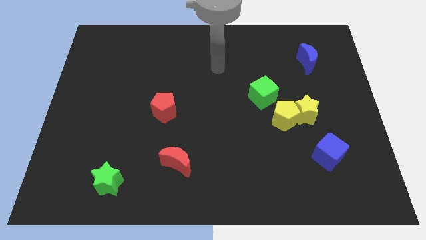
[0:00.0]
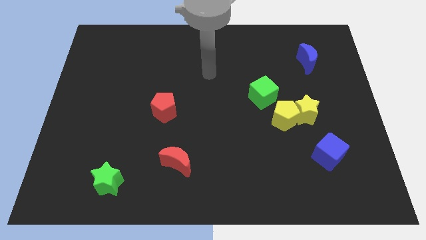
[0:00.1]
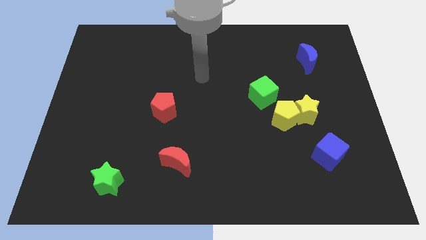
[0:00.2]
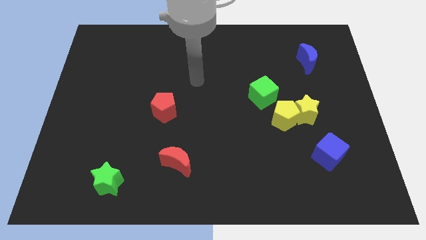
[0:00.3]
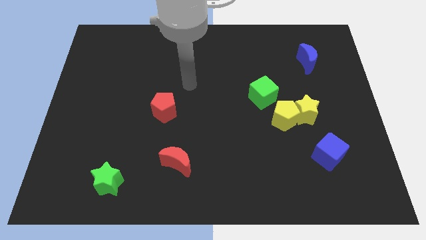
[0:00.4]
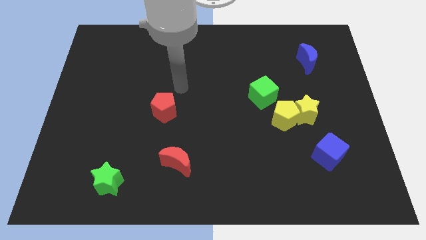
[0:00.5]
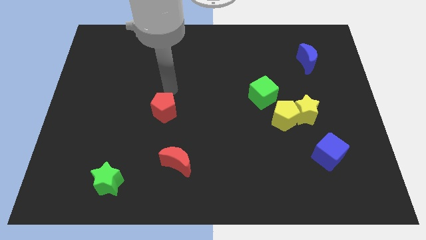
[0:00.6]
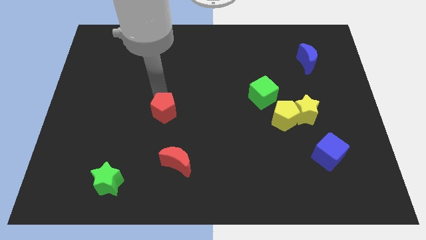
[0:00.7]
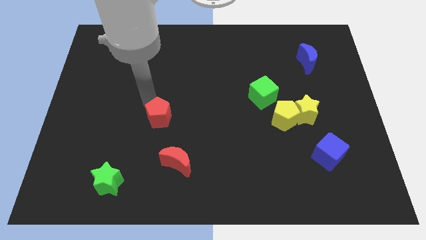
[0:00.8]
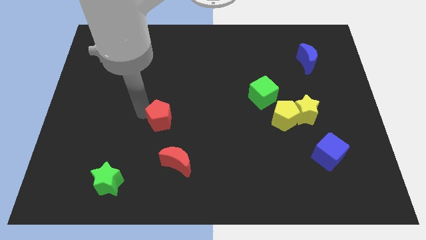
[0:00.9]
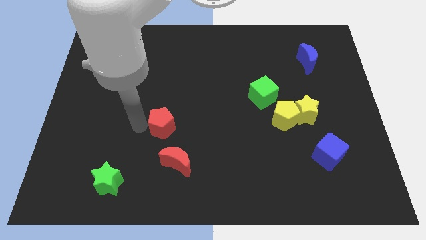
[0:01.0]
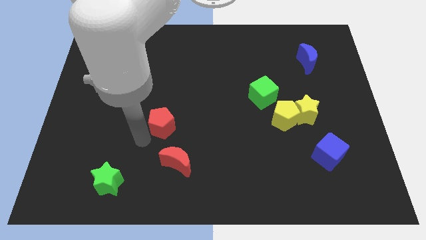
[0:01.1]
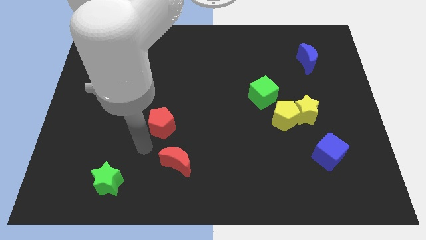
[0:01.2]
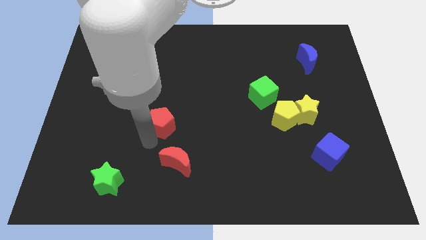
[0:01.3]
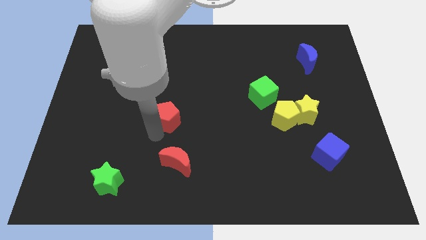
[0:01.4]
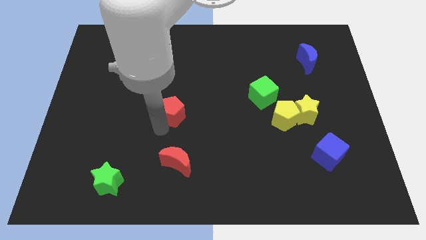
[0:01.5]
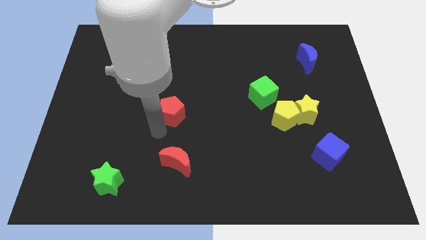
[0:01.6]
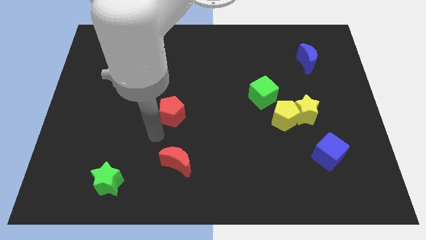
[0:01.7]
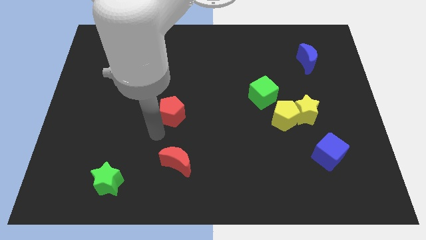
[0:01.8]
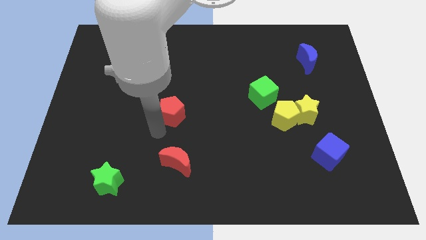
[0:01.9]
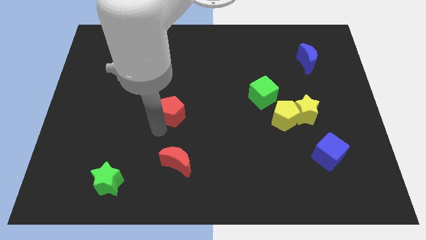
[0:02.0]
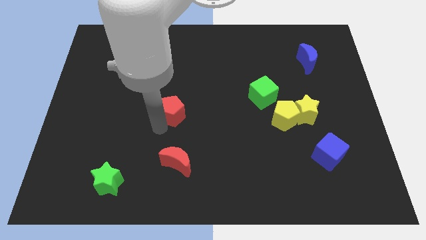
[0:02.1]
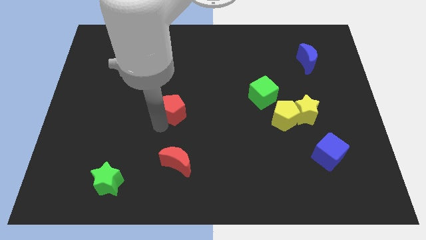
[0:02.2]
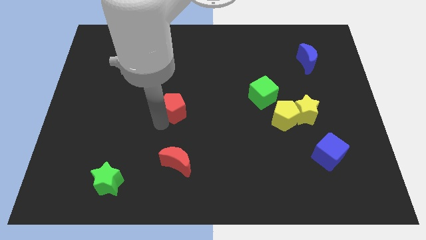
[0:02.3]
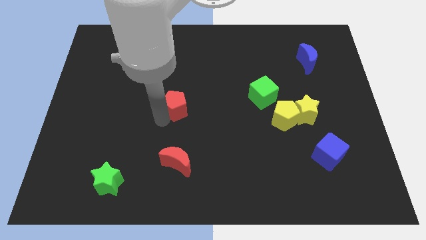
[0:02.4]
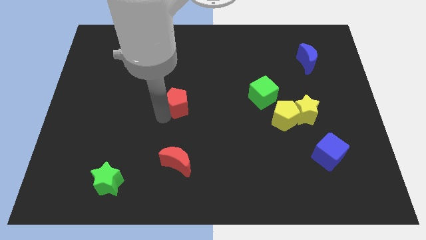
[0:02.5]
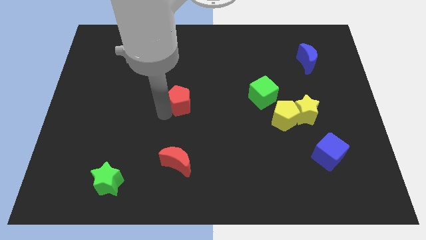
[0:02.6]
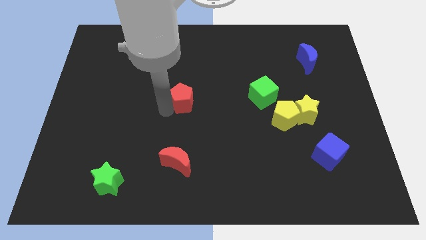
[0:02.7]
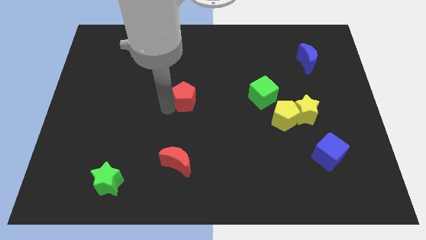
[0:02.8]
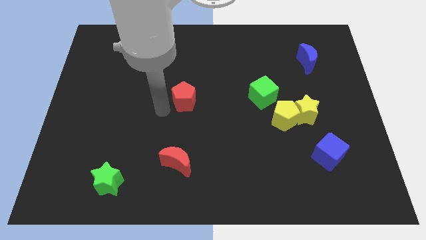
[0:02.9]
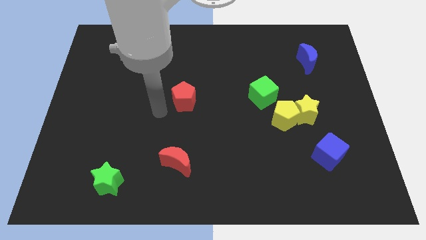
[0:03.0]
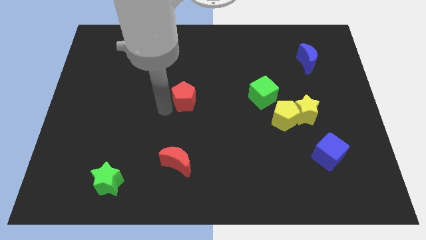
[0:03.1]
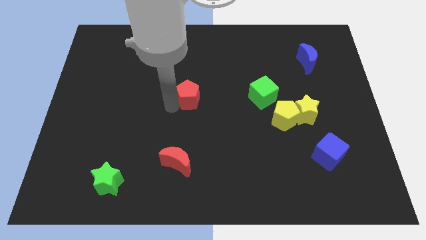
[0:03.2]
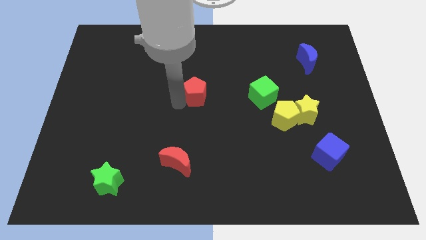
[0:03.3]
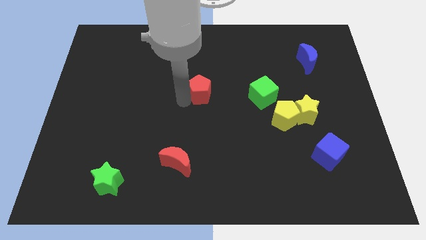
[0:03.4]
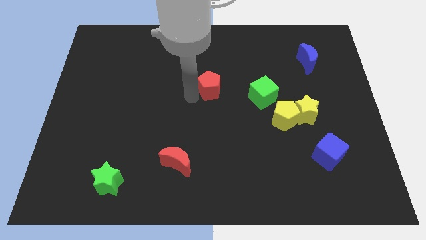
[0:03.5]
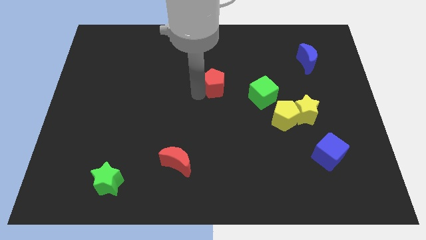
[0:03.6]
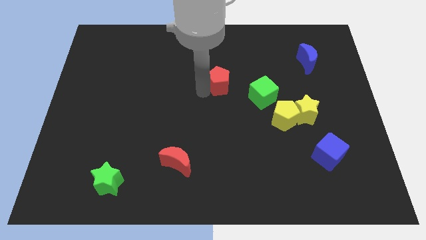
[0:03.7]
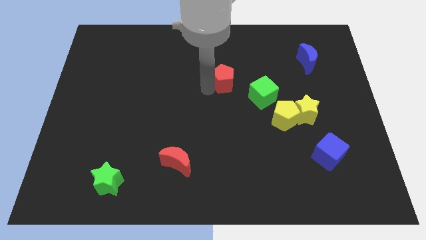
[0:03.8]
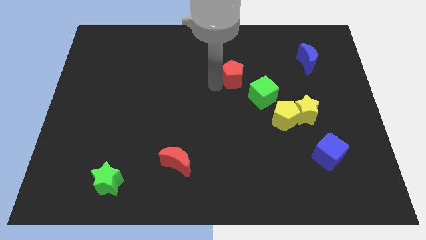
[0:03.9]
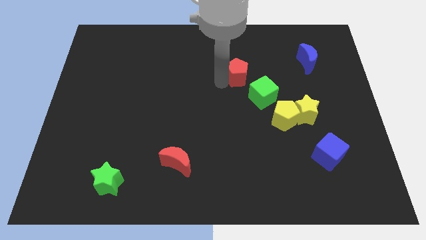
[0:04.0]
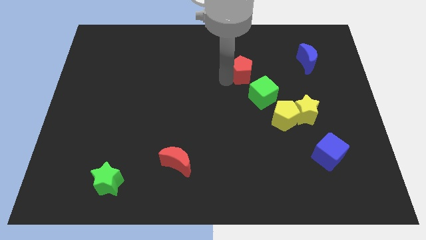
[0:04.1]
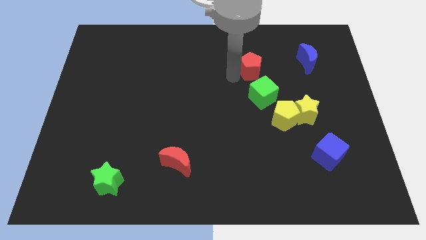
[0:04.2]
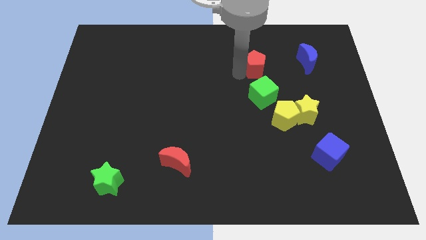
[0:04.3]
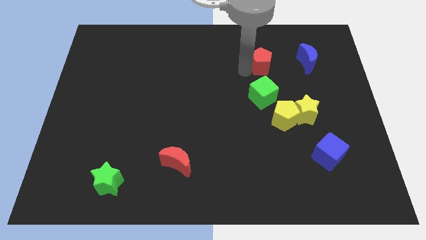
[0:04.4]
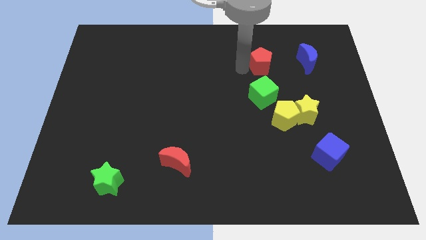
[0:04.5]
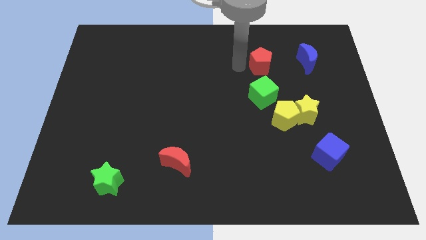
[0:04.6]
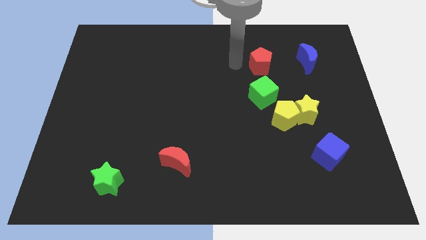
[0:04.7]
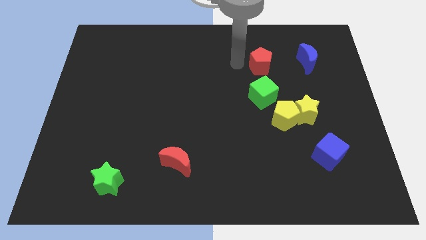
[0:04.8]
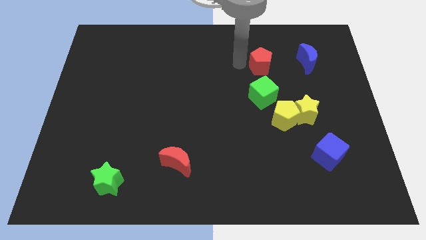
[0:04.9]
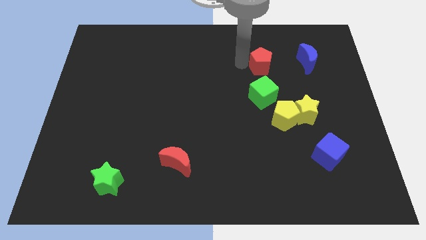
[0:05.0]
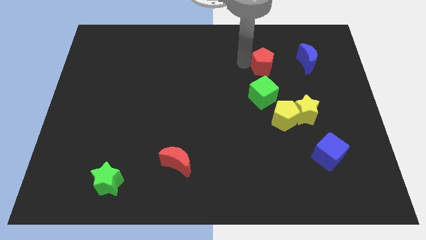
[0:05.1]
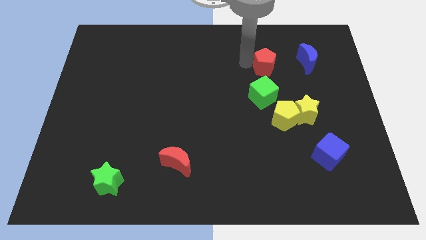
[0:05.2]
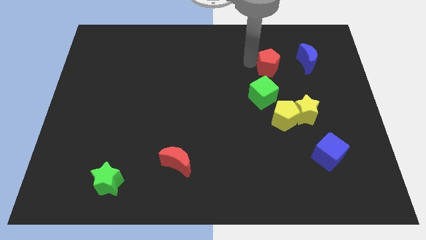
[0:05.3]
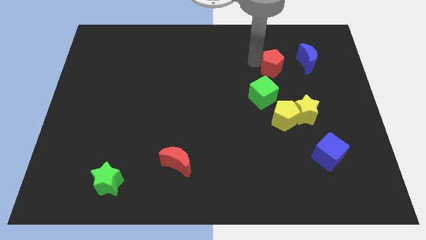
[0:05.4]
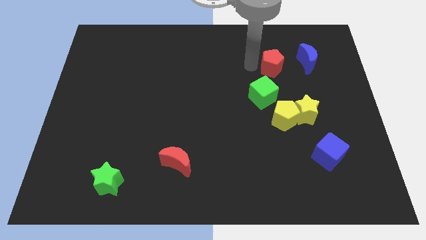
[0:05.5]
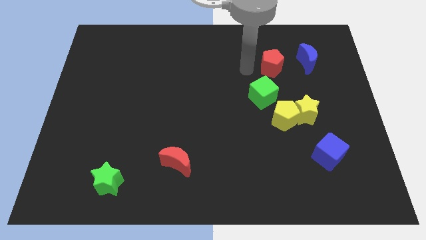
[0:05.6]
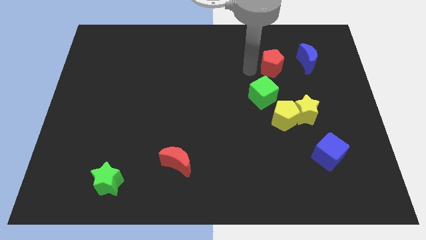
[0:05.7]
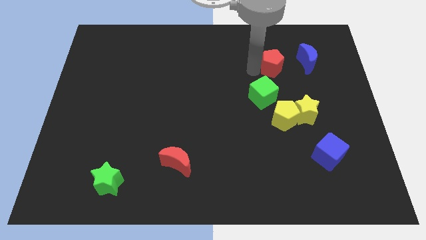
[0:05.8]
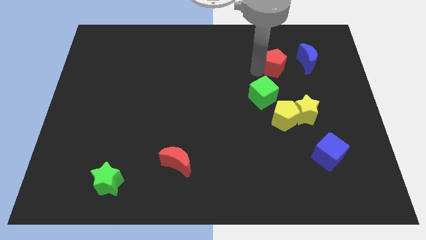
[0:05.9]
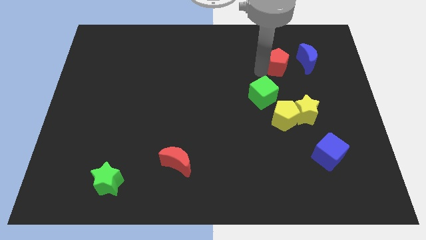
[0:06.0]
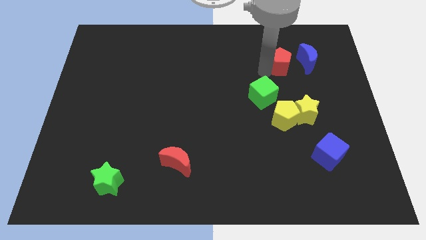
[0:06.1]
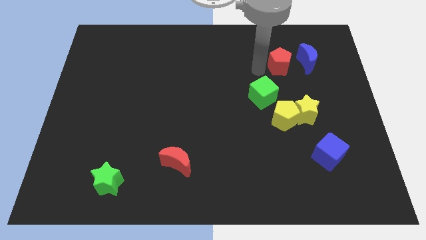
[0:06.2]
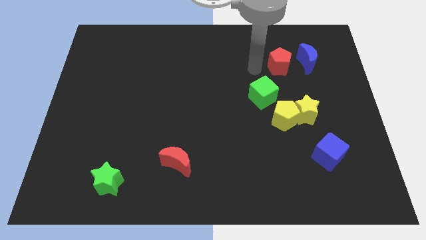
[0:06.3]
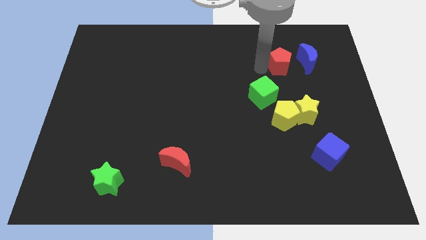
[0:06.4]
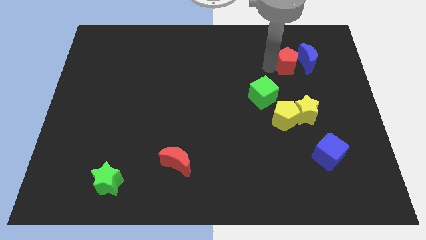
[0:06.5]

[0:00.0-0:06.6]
slide the red pentagon towards the blue moon

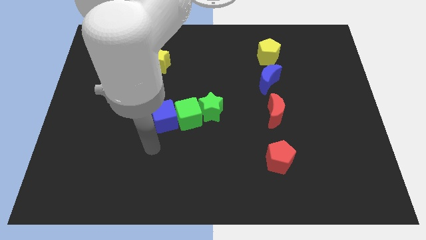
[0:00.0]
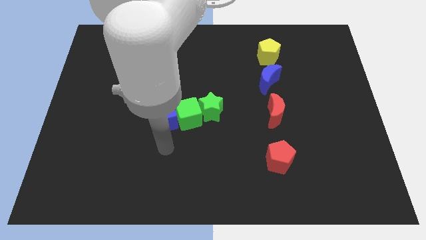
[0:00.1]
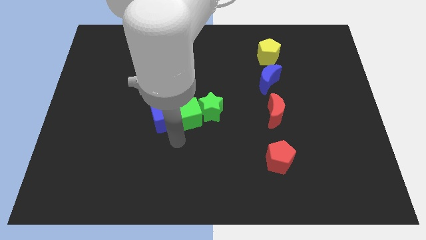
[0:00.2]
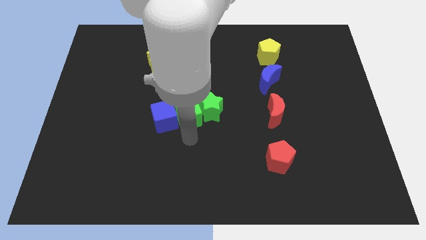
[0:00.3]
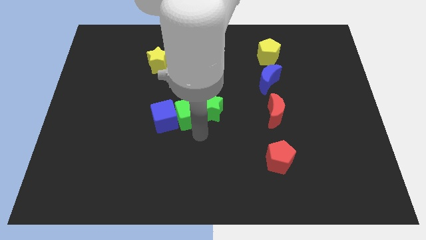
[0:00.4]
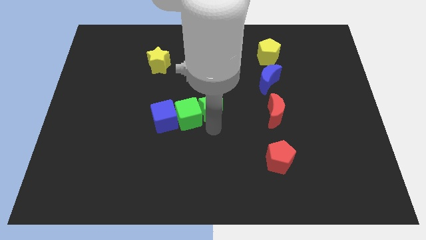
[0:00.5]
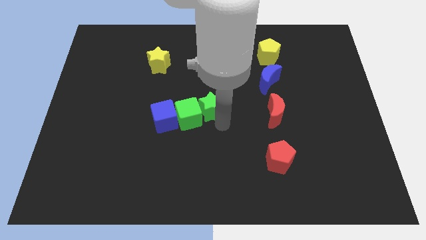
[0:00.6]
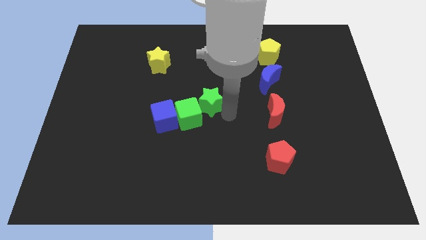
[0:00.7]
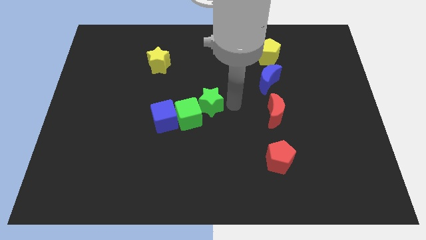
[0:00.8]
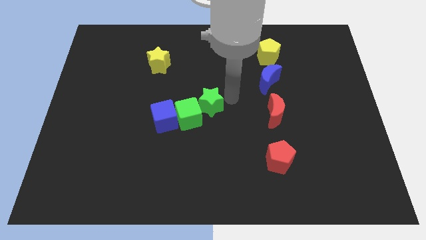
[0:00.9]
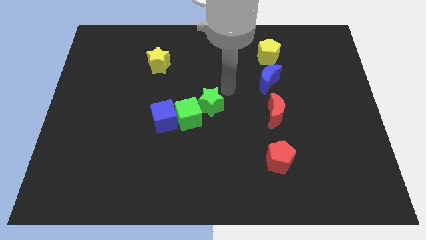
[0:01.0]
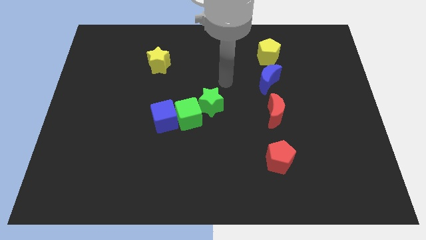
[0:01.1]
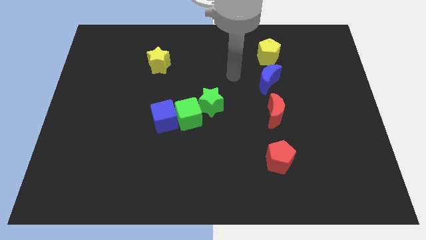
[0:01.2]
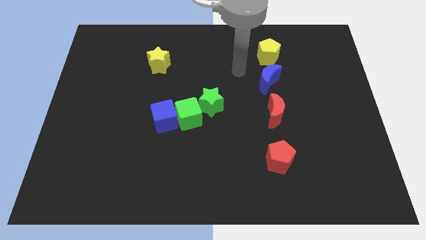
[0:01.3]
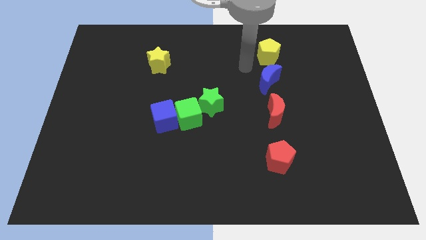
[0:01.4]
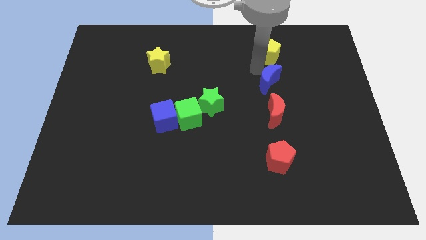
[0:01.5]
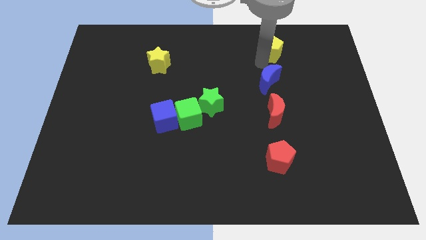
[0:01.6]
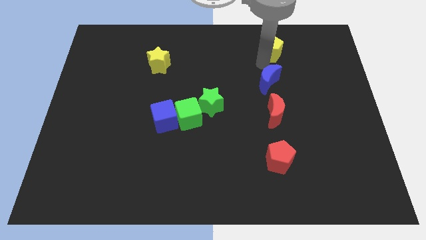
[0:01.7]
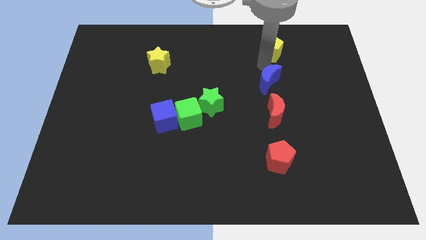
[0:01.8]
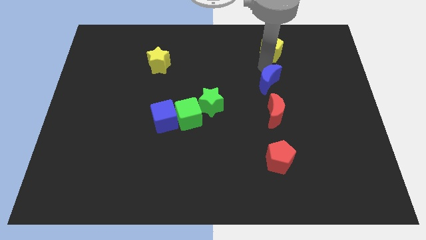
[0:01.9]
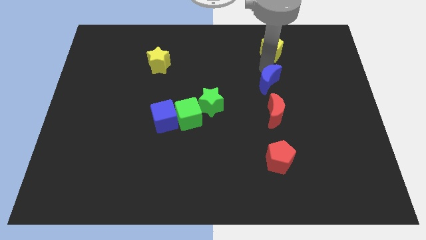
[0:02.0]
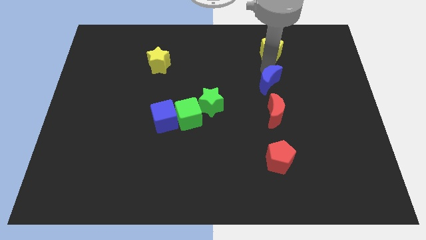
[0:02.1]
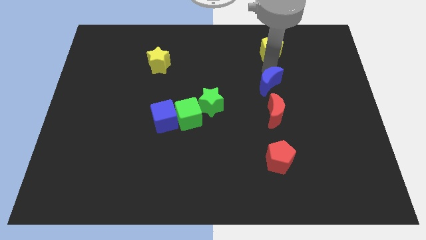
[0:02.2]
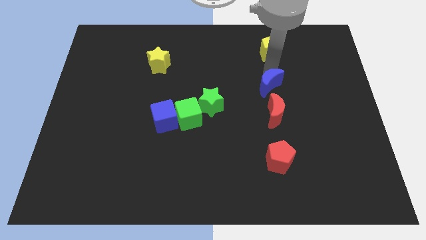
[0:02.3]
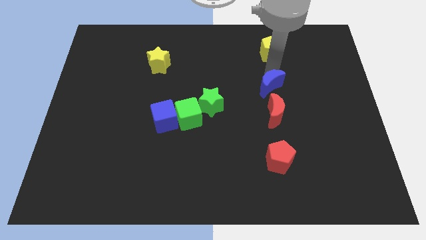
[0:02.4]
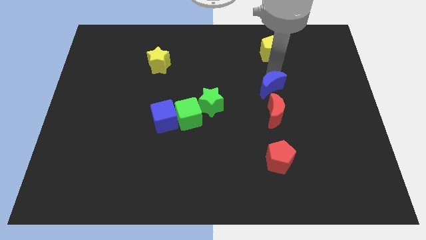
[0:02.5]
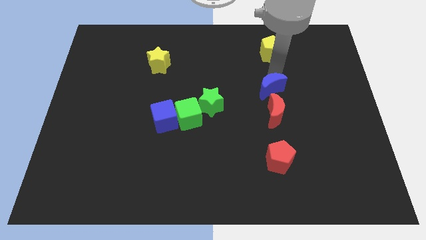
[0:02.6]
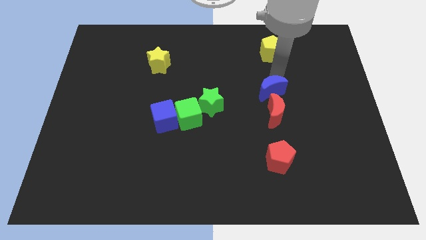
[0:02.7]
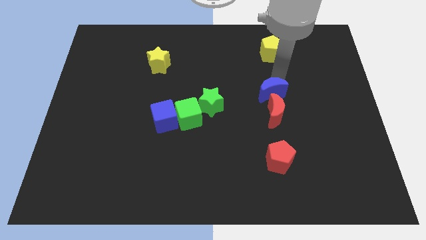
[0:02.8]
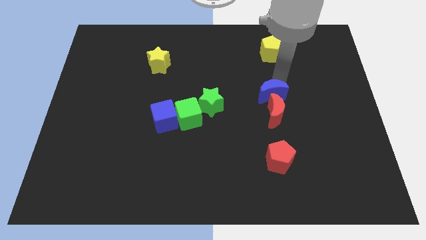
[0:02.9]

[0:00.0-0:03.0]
move the blue moon next to the red moon
